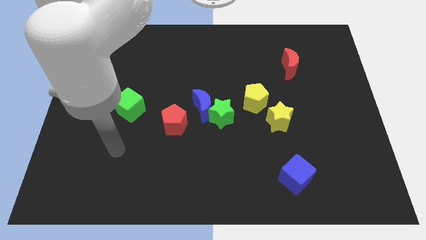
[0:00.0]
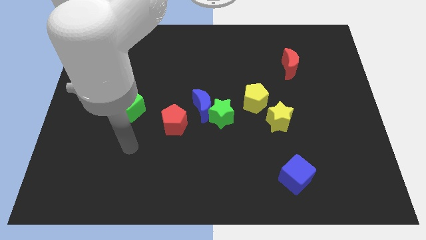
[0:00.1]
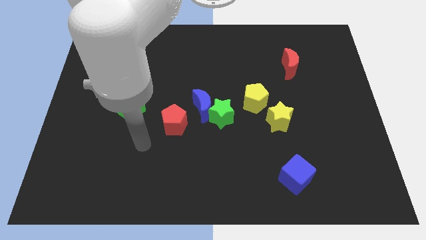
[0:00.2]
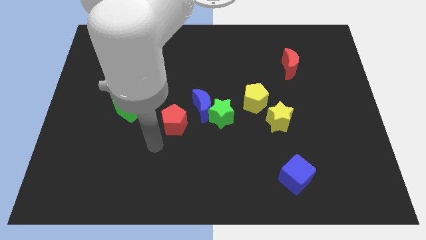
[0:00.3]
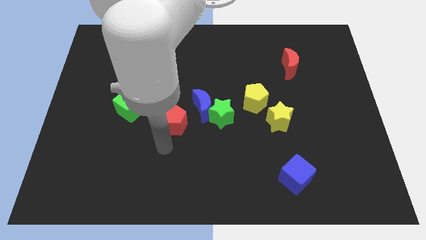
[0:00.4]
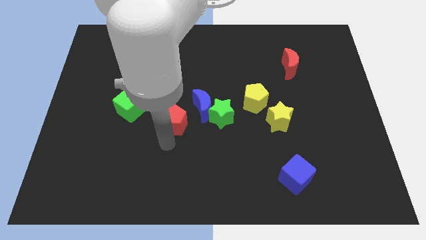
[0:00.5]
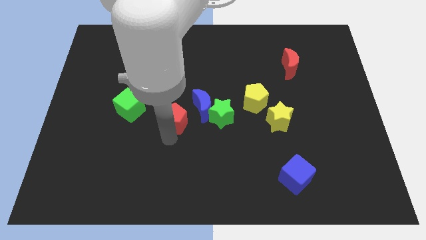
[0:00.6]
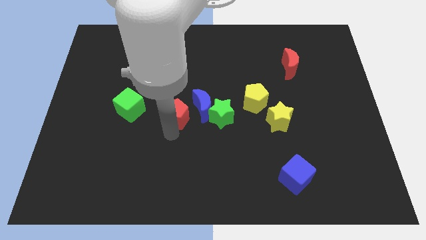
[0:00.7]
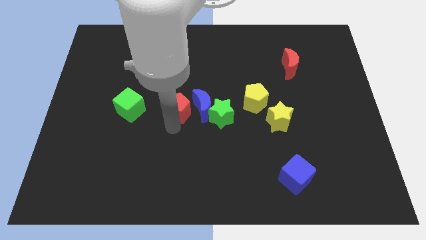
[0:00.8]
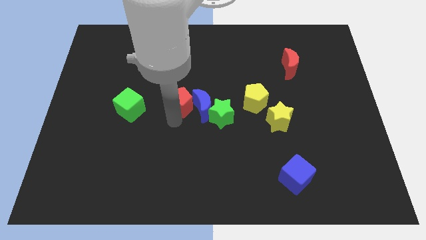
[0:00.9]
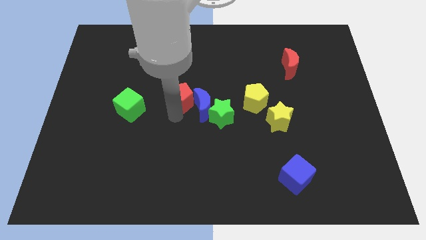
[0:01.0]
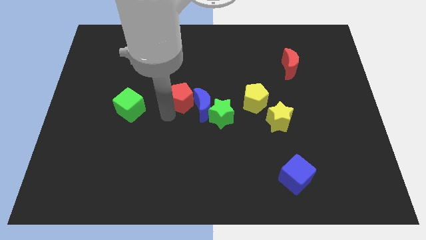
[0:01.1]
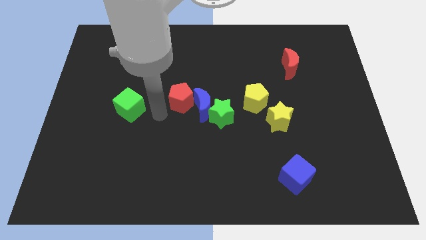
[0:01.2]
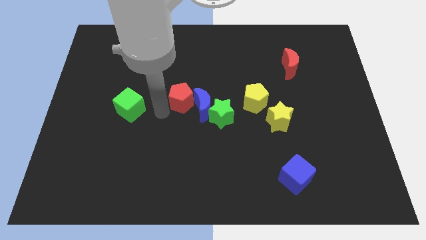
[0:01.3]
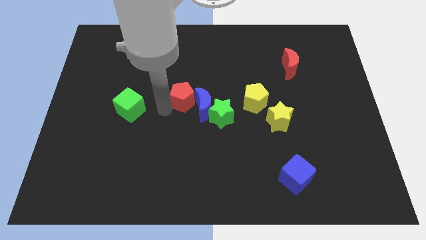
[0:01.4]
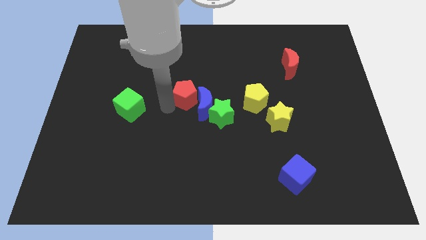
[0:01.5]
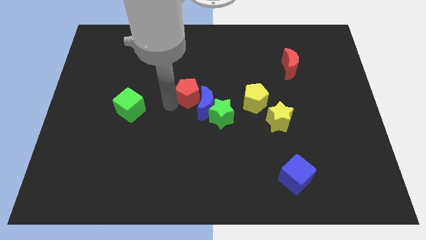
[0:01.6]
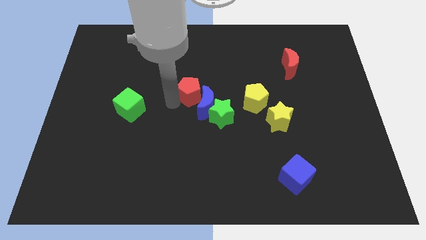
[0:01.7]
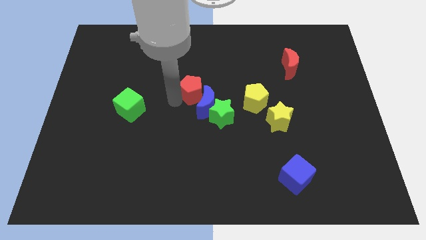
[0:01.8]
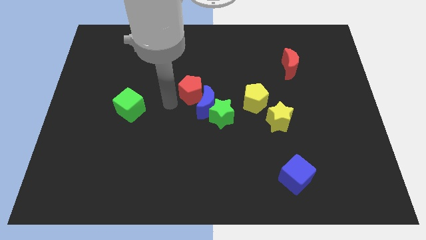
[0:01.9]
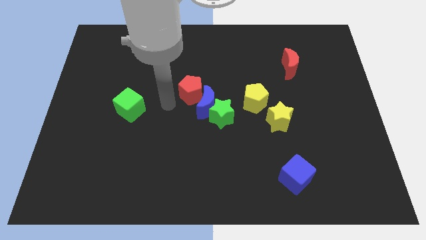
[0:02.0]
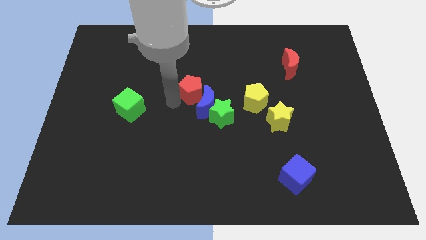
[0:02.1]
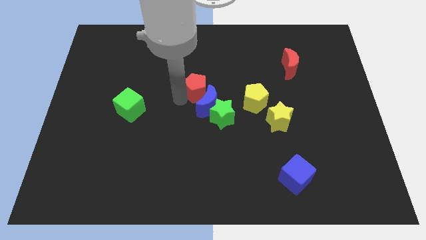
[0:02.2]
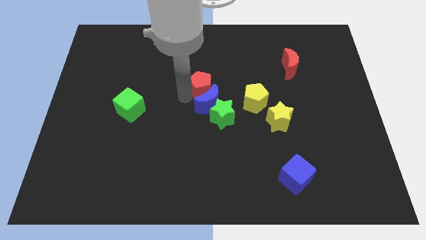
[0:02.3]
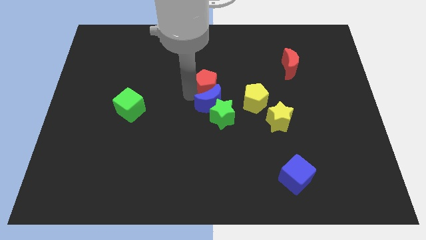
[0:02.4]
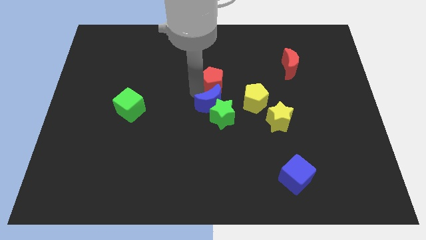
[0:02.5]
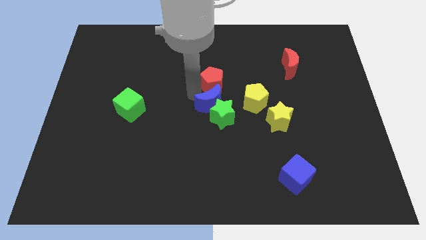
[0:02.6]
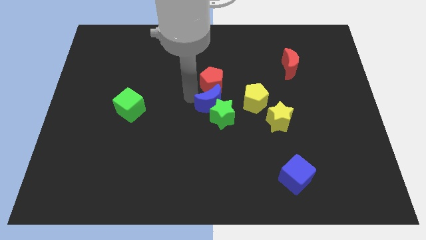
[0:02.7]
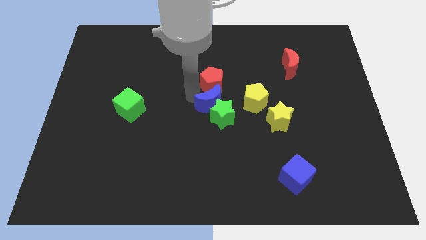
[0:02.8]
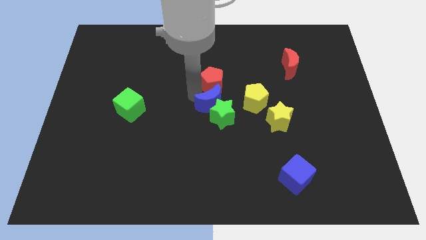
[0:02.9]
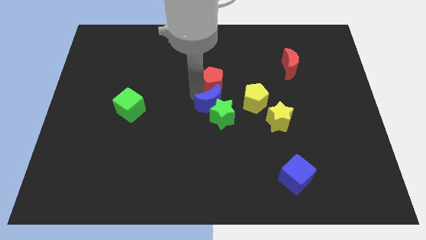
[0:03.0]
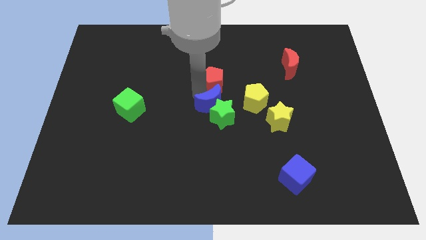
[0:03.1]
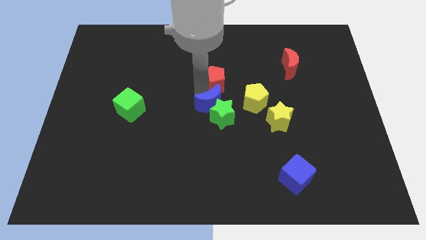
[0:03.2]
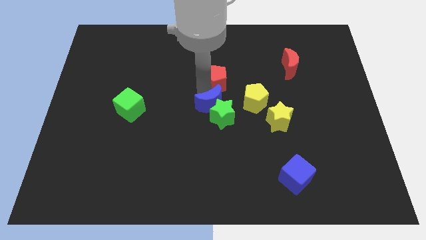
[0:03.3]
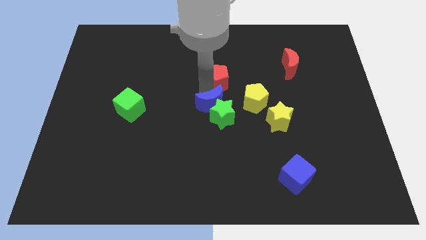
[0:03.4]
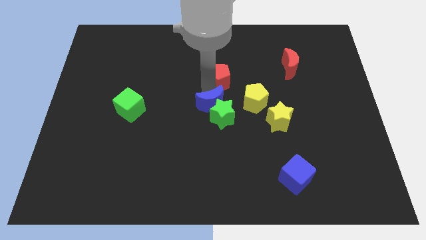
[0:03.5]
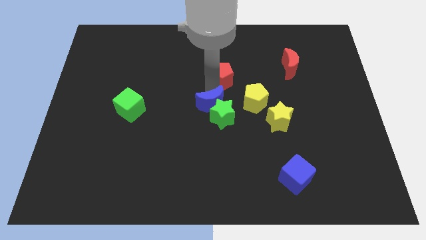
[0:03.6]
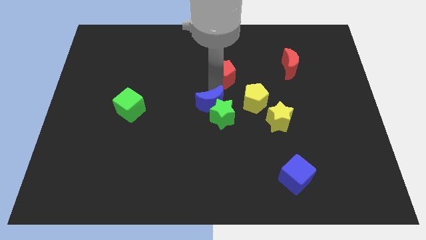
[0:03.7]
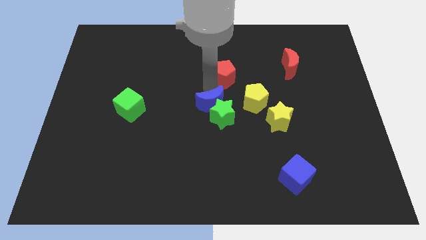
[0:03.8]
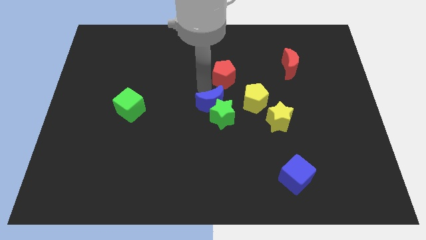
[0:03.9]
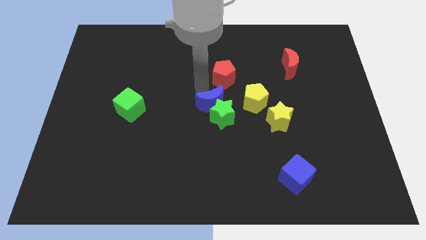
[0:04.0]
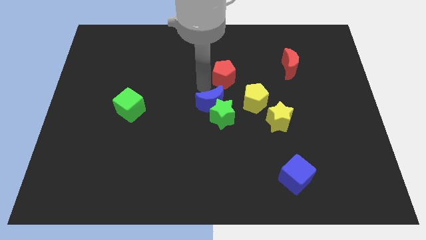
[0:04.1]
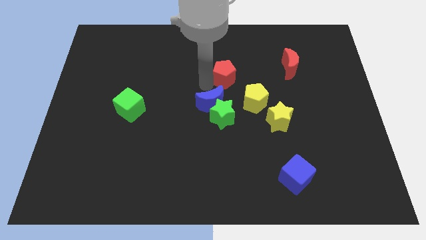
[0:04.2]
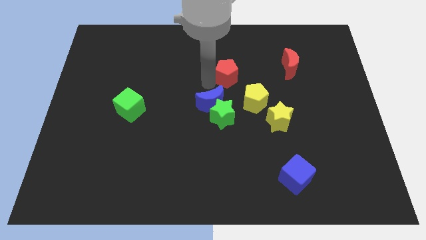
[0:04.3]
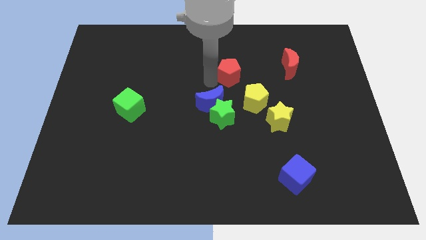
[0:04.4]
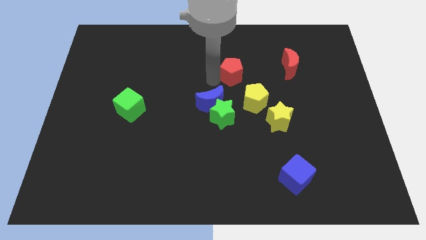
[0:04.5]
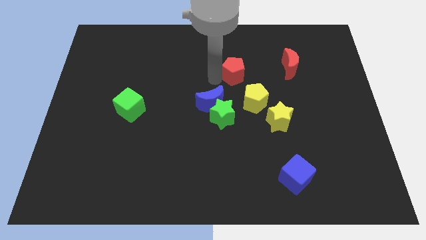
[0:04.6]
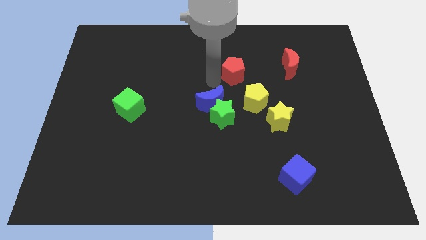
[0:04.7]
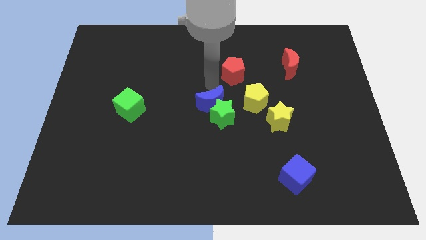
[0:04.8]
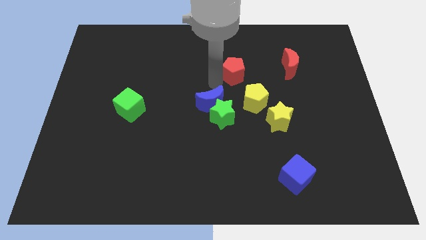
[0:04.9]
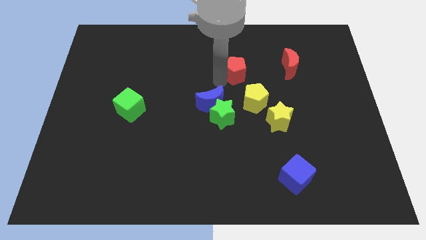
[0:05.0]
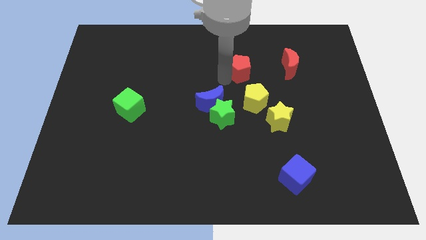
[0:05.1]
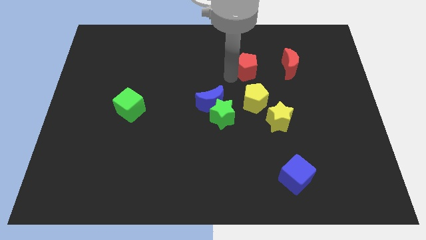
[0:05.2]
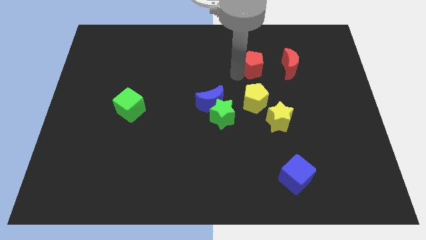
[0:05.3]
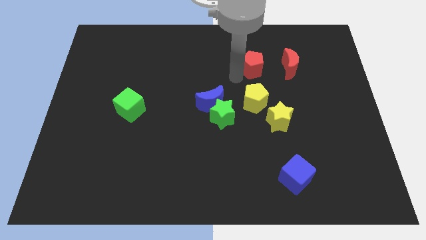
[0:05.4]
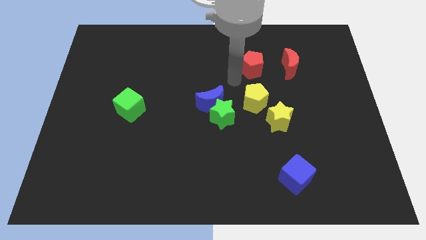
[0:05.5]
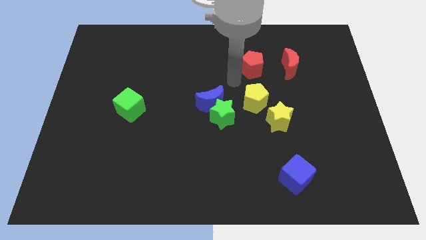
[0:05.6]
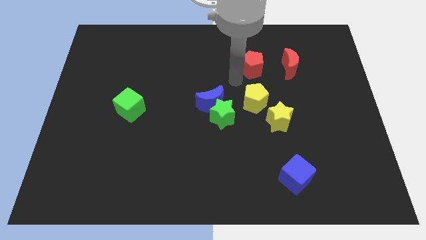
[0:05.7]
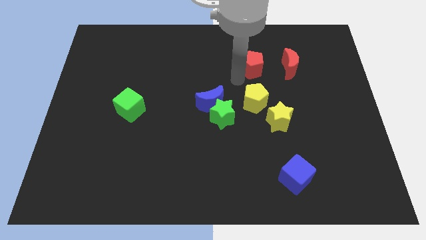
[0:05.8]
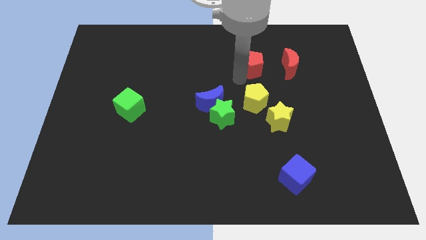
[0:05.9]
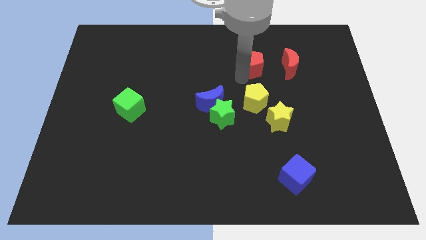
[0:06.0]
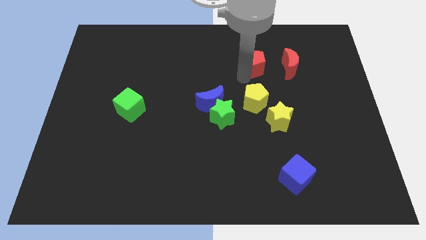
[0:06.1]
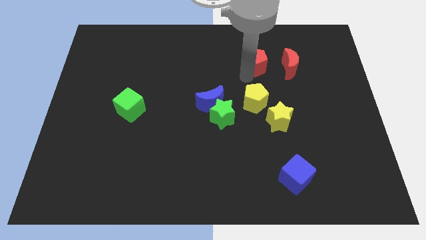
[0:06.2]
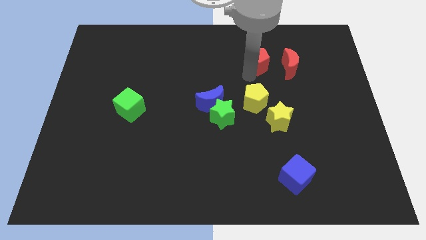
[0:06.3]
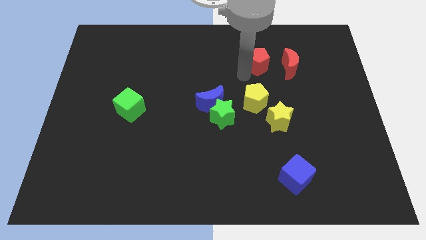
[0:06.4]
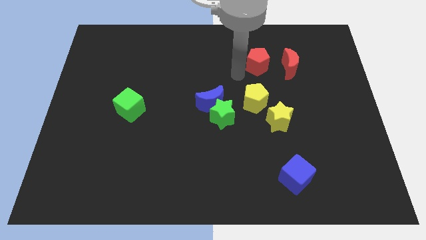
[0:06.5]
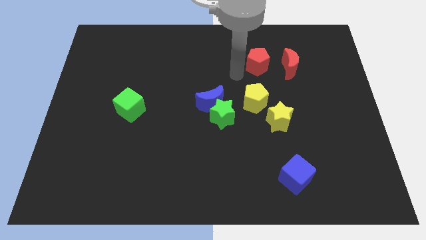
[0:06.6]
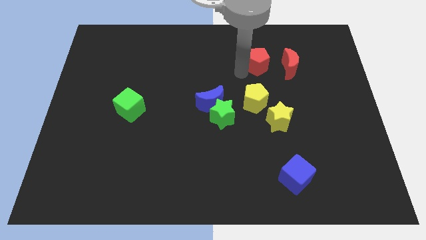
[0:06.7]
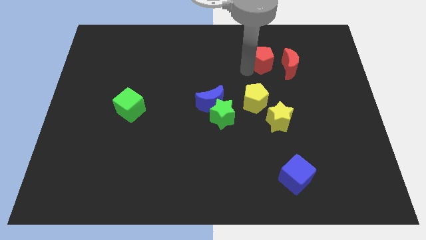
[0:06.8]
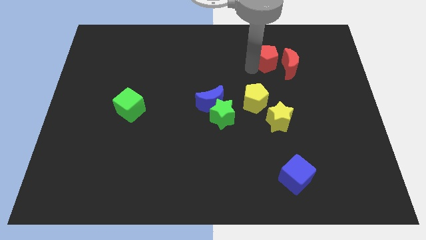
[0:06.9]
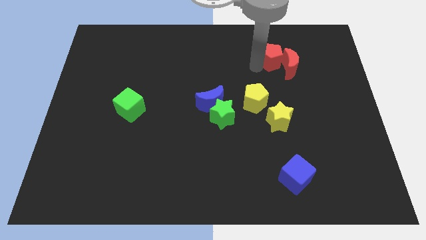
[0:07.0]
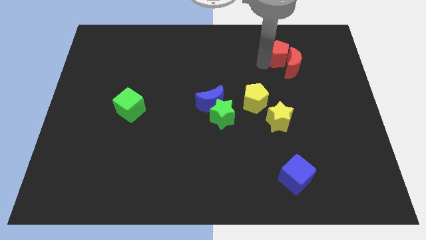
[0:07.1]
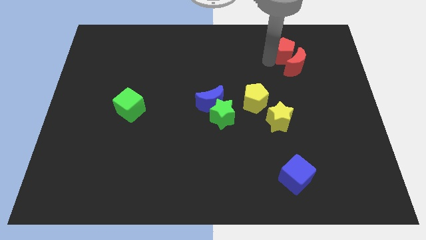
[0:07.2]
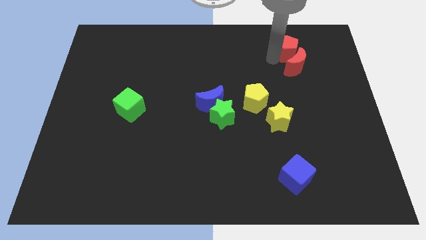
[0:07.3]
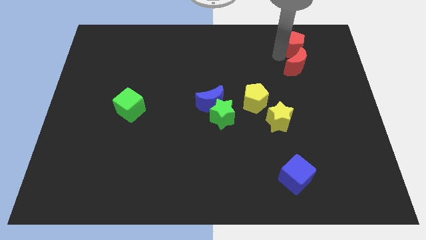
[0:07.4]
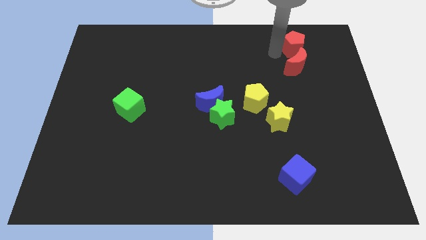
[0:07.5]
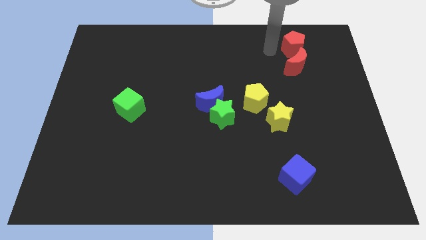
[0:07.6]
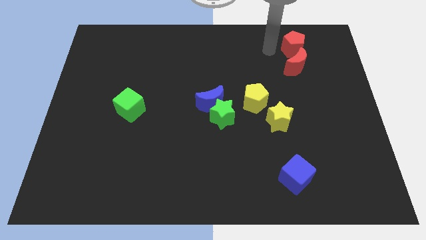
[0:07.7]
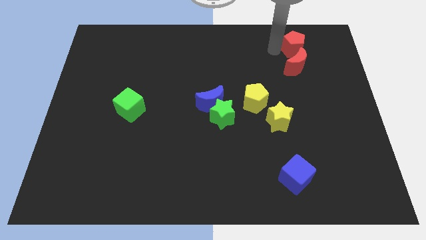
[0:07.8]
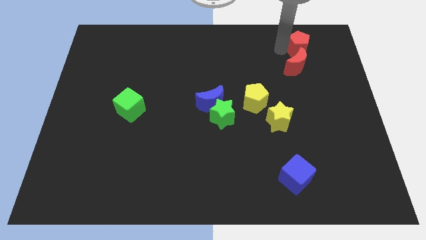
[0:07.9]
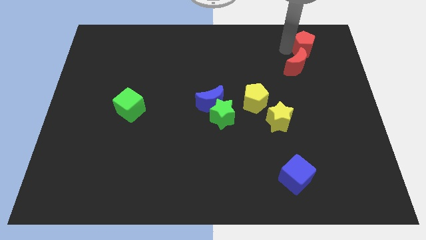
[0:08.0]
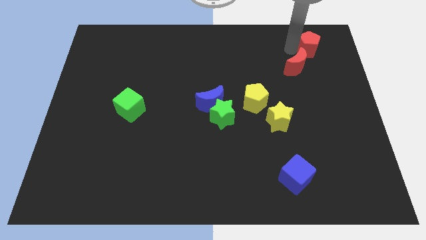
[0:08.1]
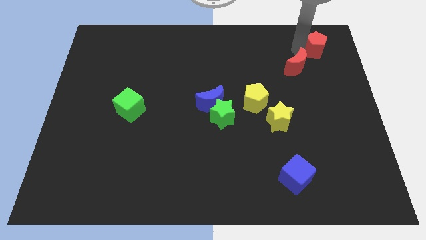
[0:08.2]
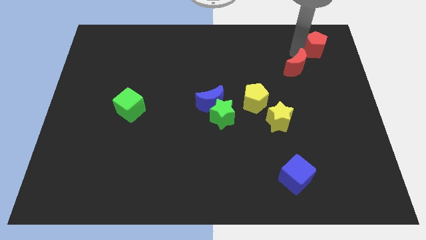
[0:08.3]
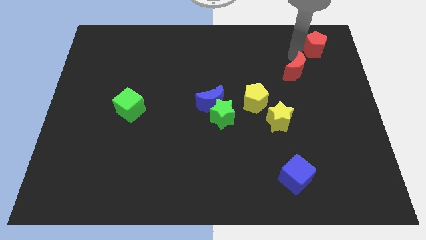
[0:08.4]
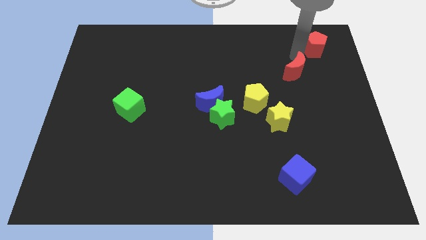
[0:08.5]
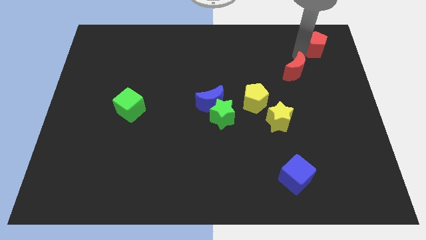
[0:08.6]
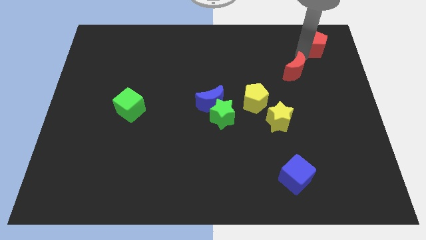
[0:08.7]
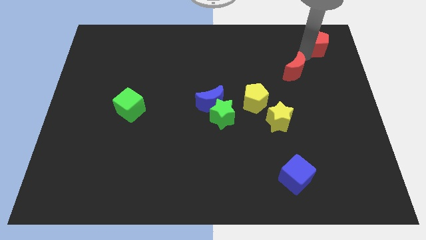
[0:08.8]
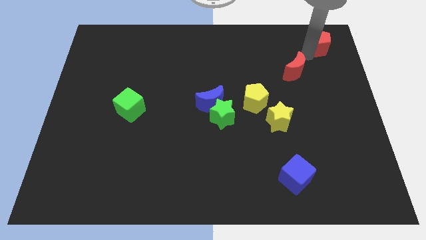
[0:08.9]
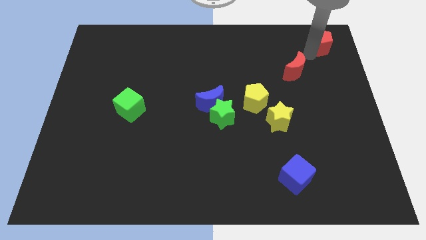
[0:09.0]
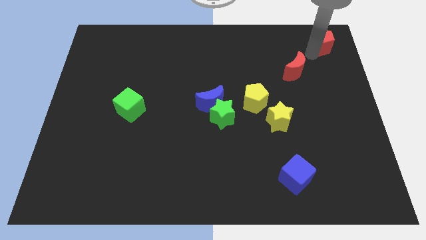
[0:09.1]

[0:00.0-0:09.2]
push the red pentagon to the top right
